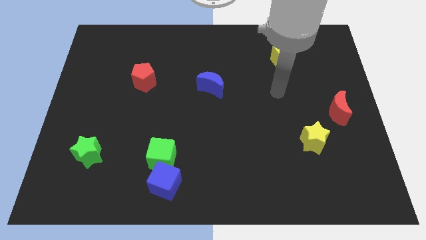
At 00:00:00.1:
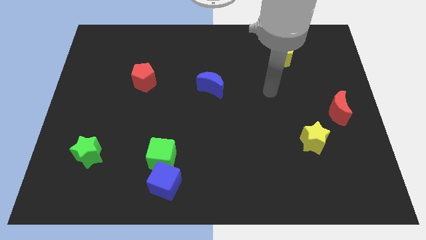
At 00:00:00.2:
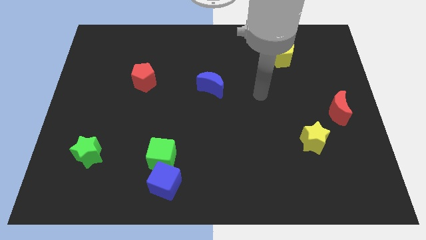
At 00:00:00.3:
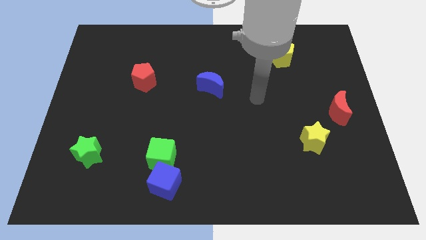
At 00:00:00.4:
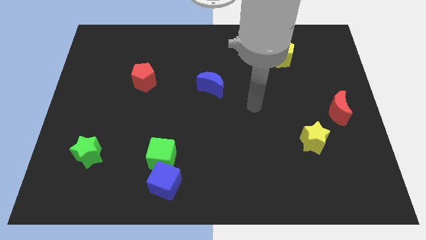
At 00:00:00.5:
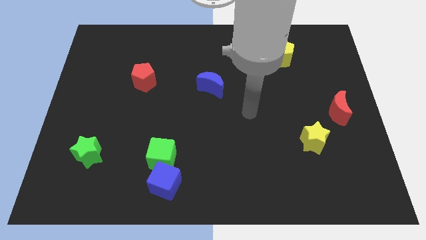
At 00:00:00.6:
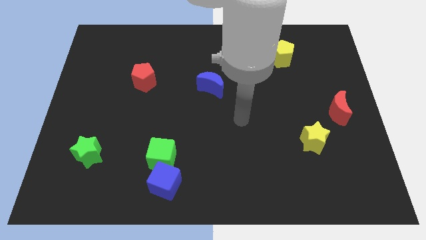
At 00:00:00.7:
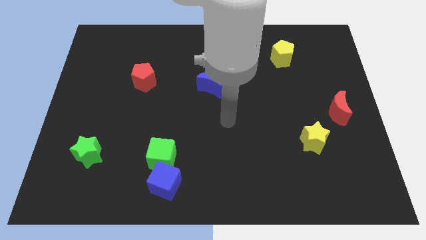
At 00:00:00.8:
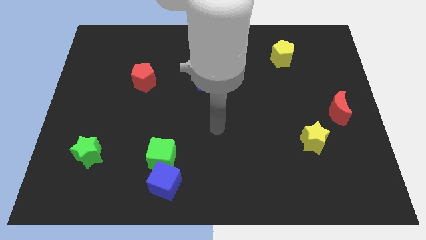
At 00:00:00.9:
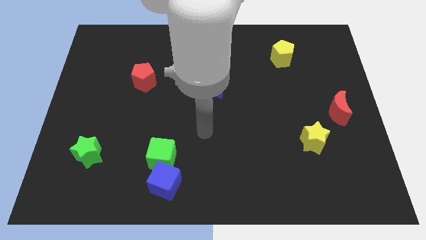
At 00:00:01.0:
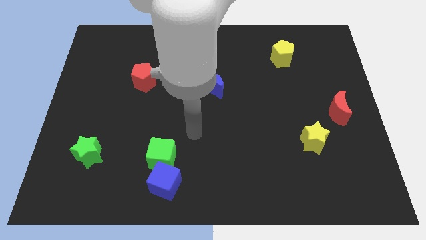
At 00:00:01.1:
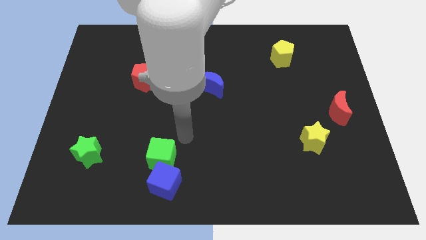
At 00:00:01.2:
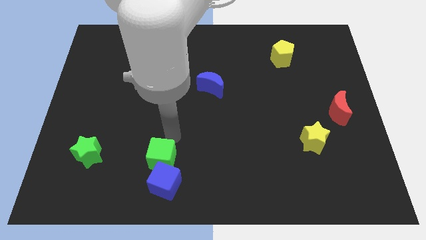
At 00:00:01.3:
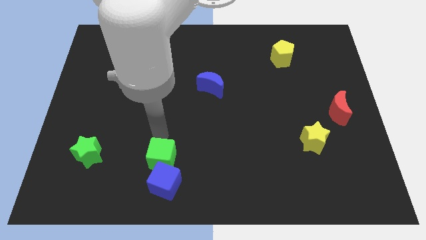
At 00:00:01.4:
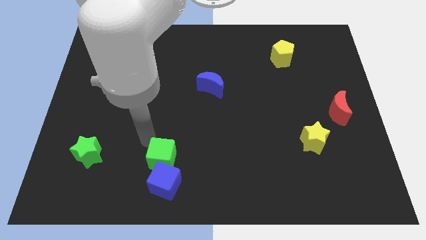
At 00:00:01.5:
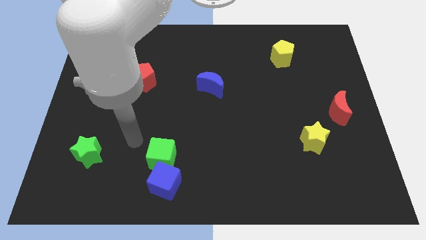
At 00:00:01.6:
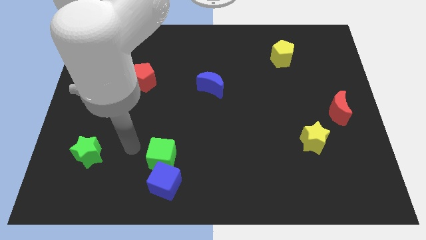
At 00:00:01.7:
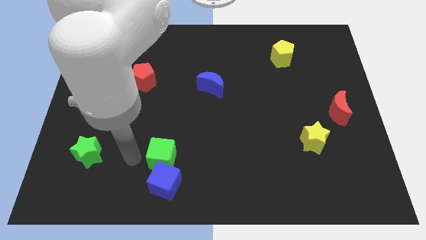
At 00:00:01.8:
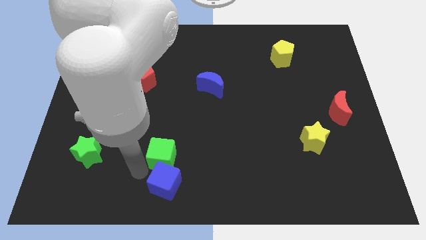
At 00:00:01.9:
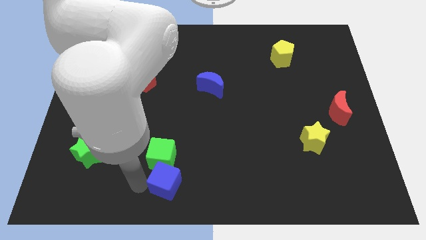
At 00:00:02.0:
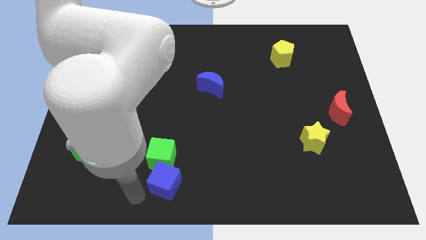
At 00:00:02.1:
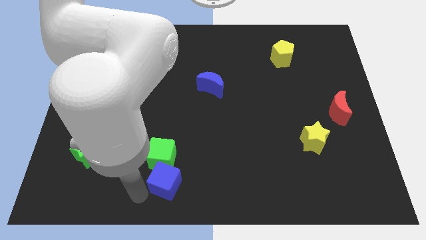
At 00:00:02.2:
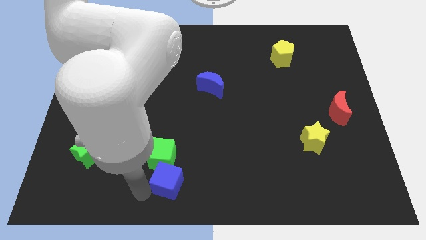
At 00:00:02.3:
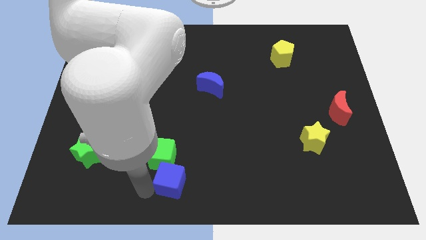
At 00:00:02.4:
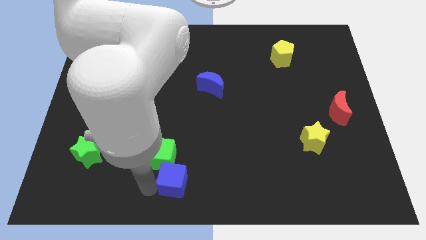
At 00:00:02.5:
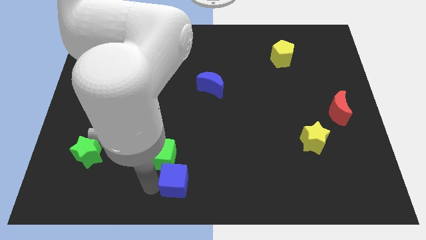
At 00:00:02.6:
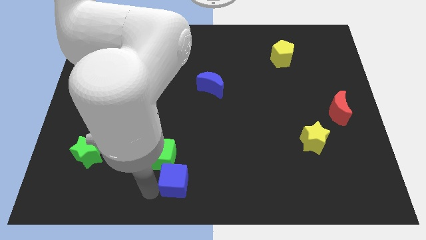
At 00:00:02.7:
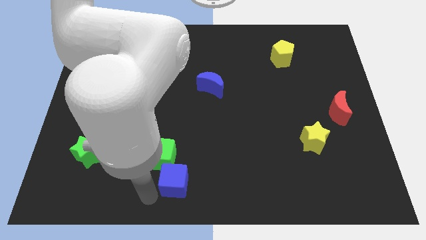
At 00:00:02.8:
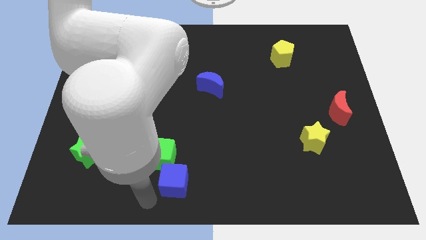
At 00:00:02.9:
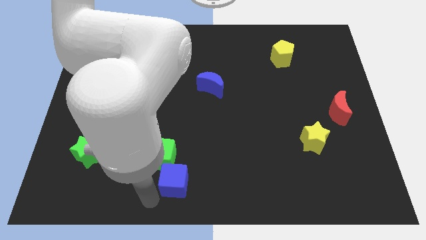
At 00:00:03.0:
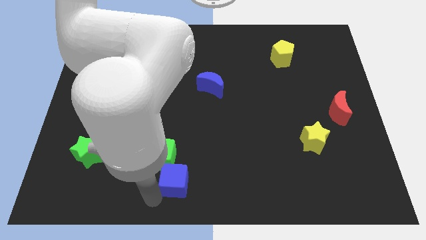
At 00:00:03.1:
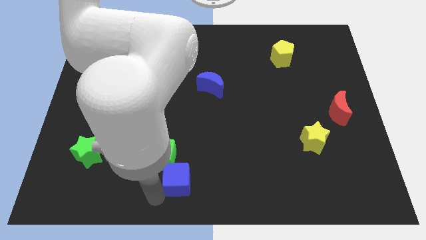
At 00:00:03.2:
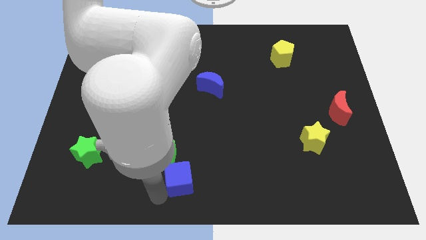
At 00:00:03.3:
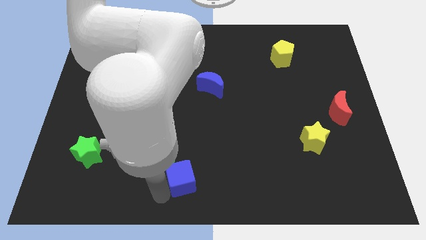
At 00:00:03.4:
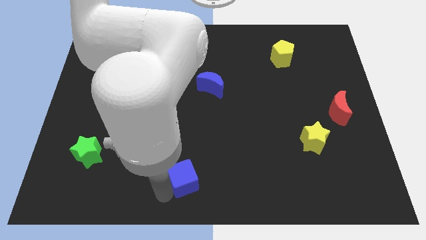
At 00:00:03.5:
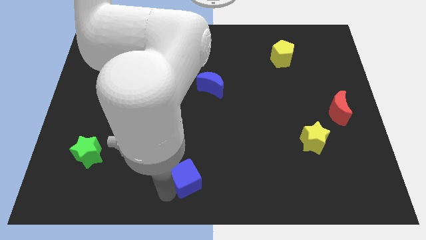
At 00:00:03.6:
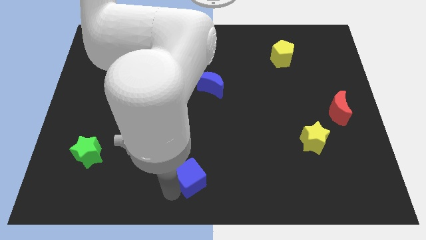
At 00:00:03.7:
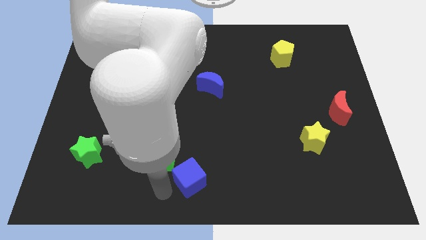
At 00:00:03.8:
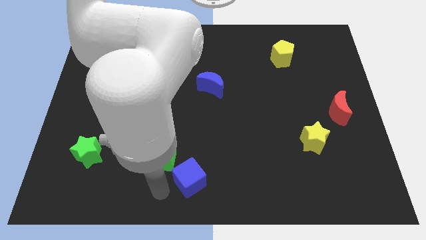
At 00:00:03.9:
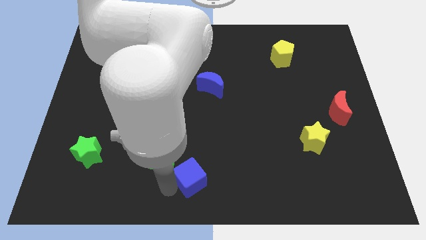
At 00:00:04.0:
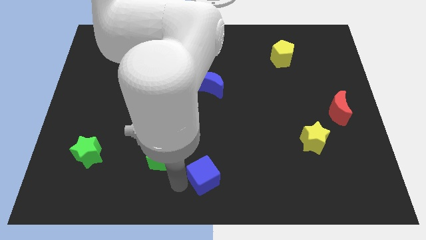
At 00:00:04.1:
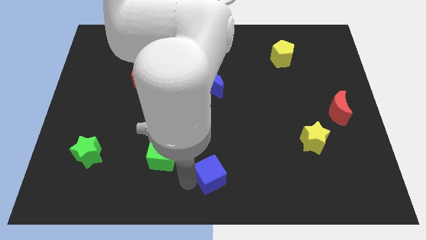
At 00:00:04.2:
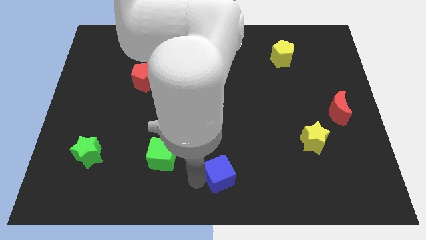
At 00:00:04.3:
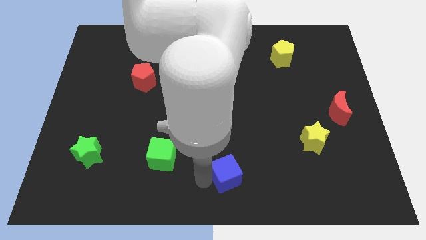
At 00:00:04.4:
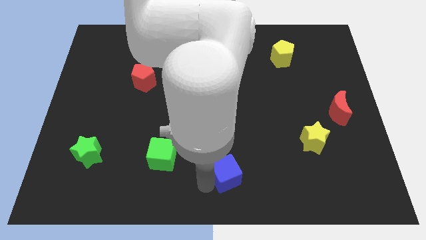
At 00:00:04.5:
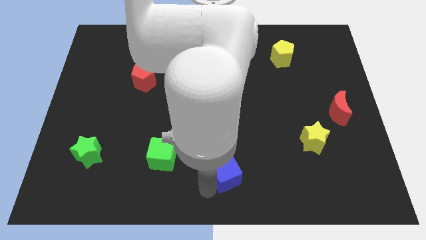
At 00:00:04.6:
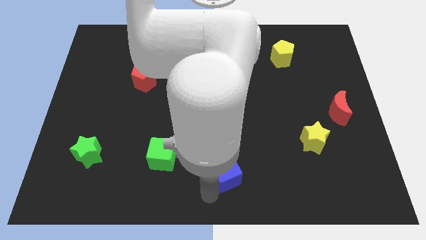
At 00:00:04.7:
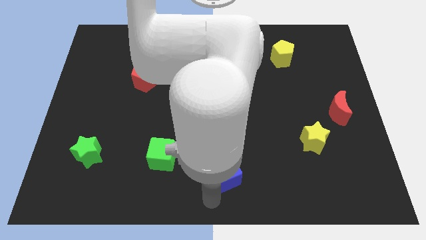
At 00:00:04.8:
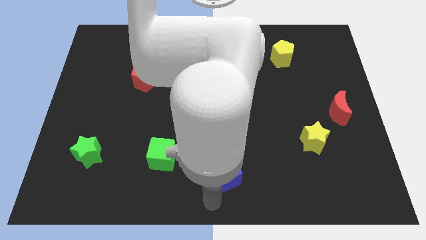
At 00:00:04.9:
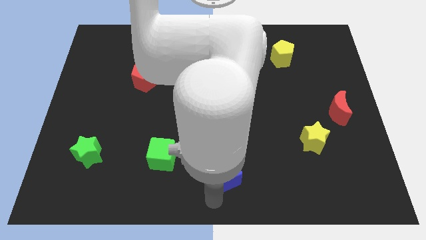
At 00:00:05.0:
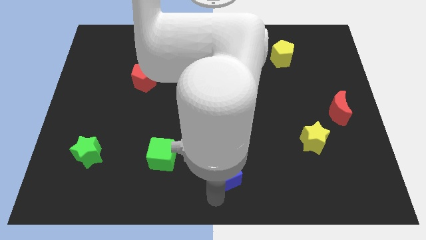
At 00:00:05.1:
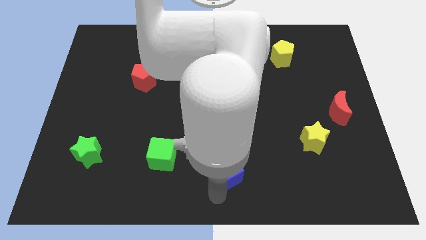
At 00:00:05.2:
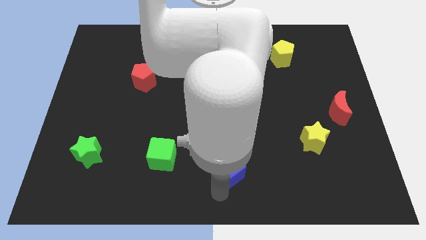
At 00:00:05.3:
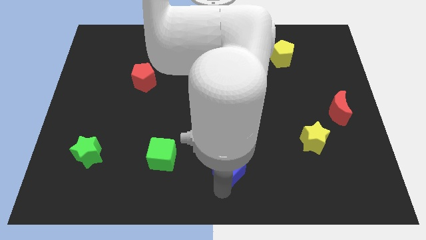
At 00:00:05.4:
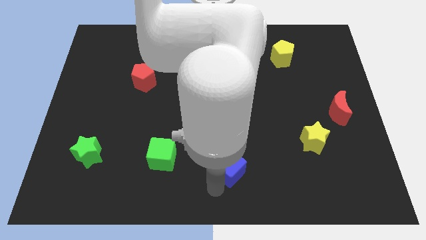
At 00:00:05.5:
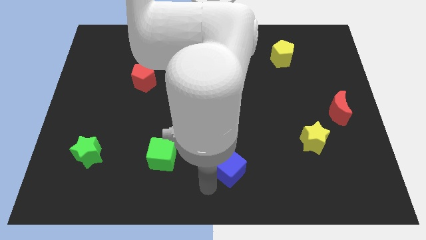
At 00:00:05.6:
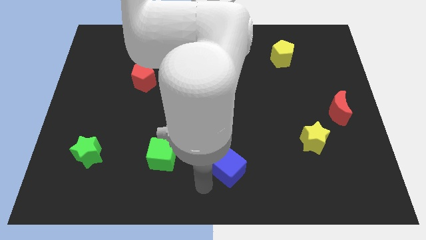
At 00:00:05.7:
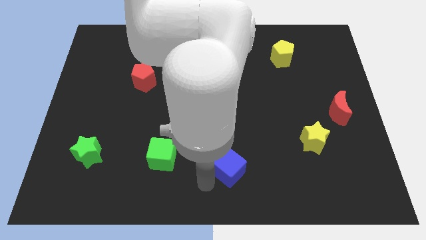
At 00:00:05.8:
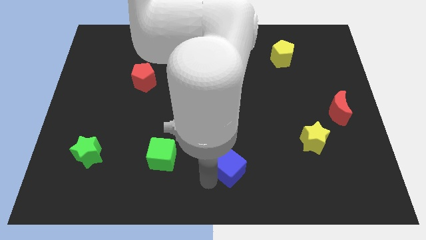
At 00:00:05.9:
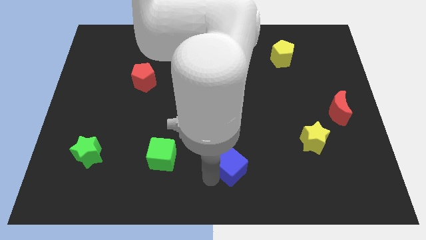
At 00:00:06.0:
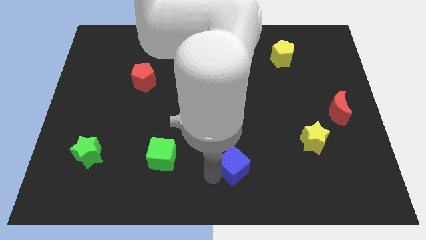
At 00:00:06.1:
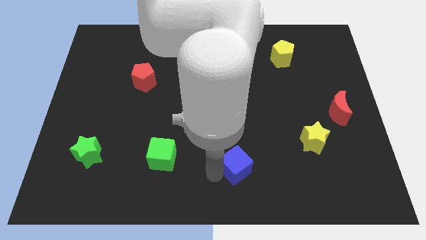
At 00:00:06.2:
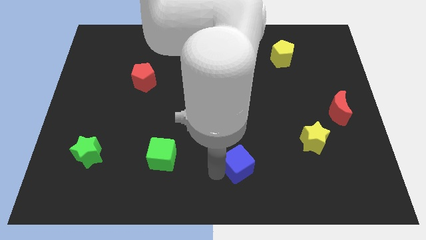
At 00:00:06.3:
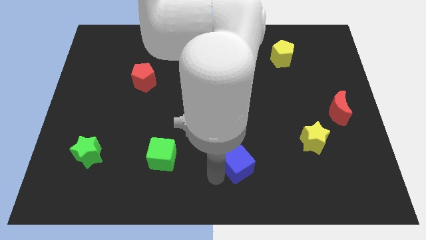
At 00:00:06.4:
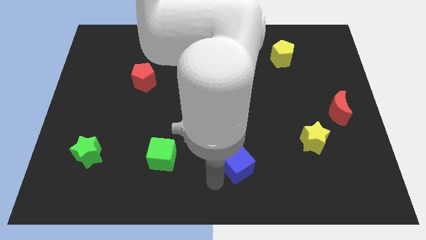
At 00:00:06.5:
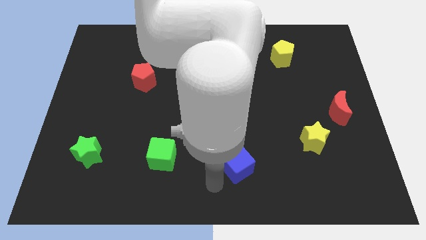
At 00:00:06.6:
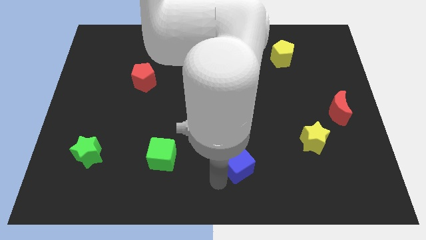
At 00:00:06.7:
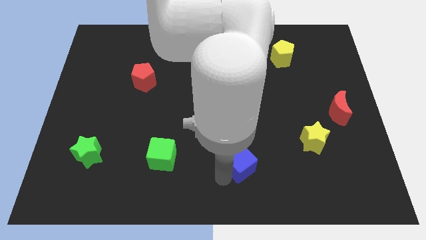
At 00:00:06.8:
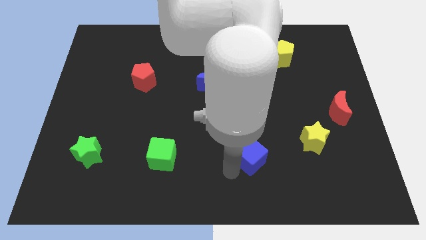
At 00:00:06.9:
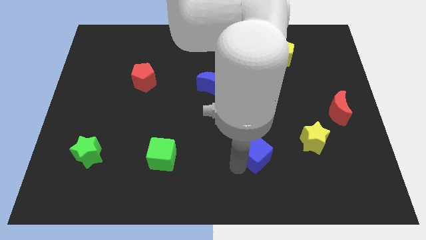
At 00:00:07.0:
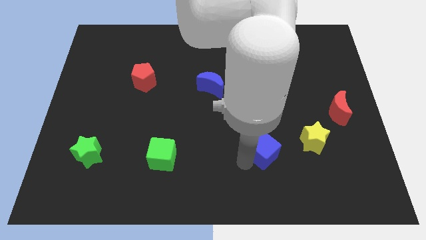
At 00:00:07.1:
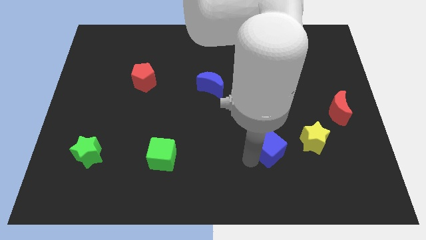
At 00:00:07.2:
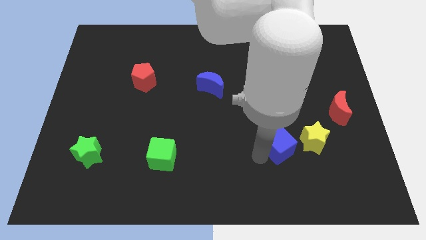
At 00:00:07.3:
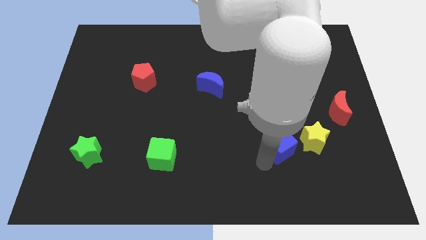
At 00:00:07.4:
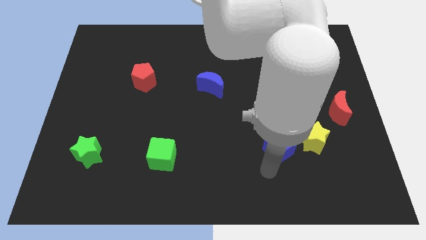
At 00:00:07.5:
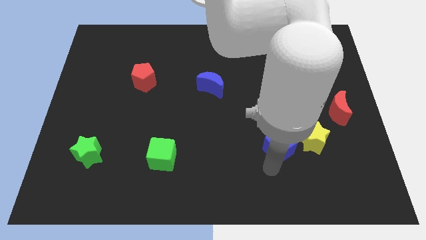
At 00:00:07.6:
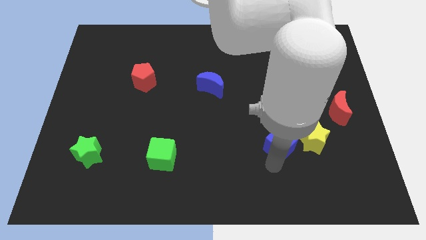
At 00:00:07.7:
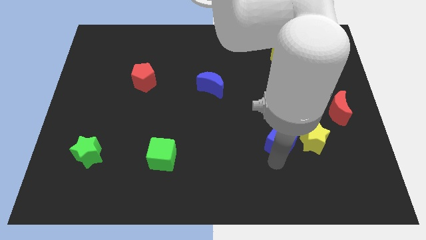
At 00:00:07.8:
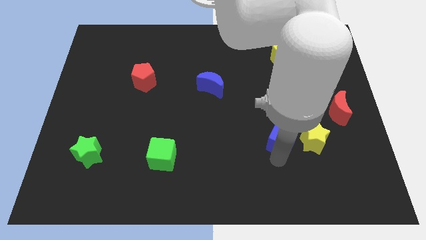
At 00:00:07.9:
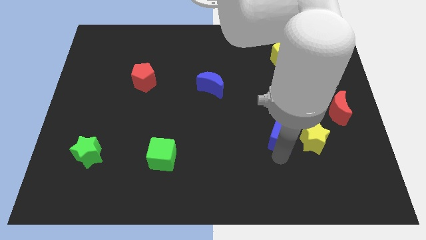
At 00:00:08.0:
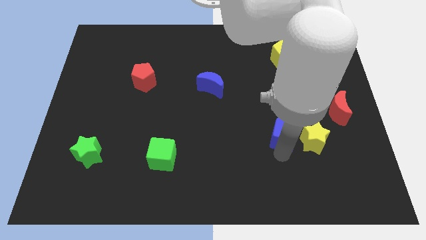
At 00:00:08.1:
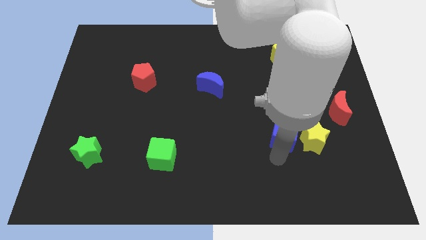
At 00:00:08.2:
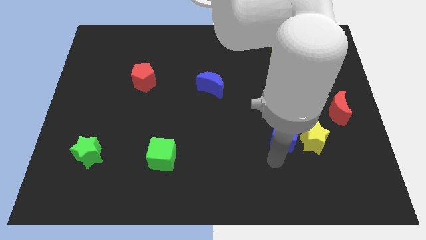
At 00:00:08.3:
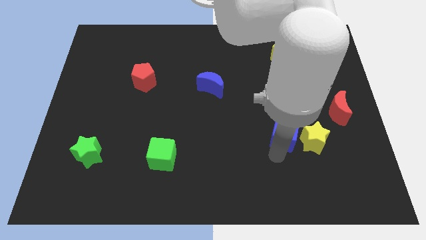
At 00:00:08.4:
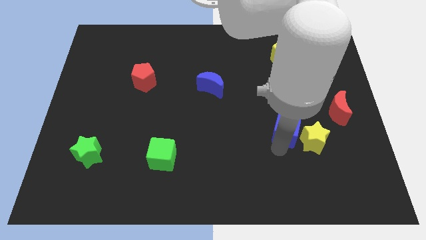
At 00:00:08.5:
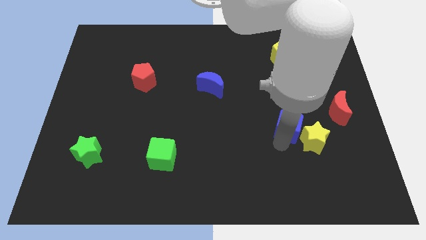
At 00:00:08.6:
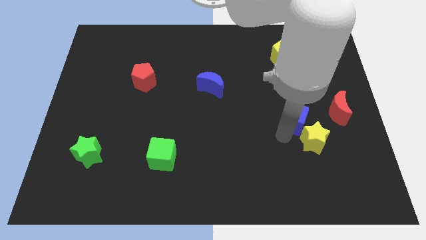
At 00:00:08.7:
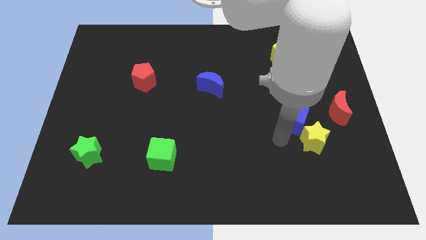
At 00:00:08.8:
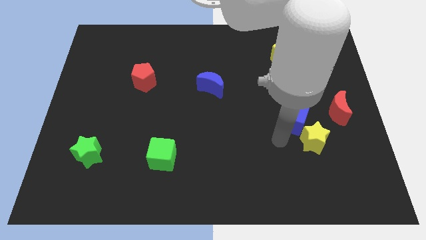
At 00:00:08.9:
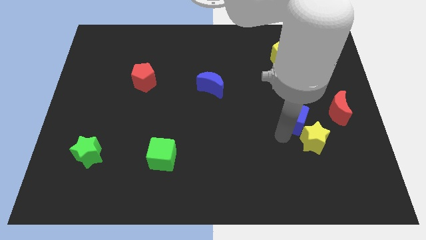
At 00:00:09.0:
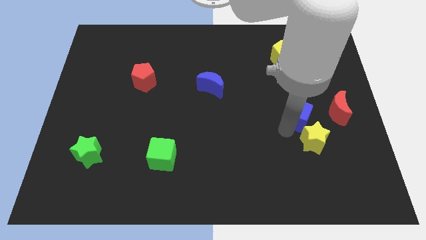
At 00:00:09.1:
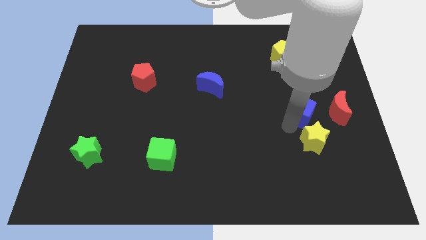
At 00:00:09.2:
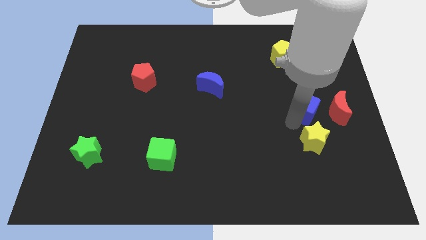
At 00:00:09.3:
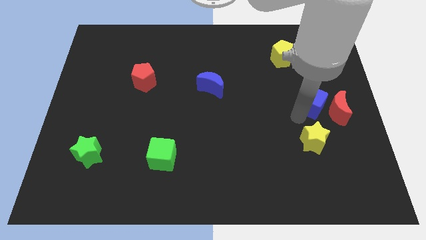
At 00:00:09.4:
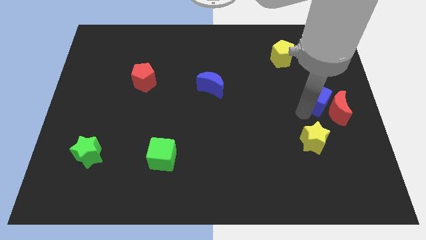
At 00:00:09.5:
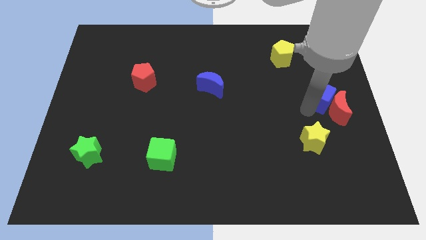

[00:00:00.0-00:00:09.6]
put the blue cube to the top of the red moon
